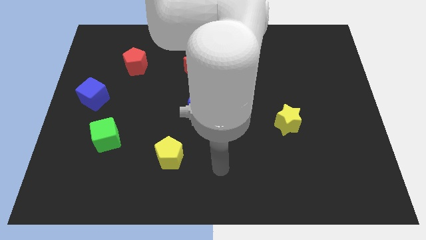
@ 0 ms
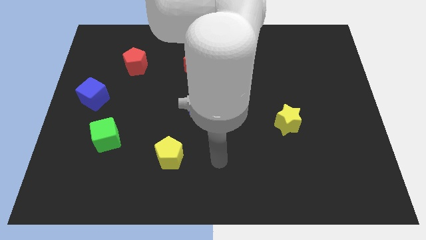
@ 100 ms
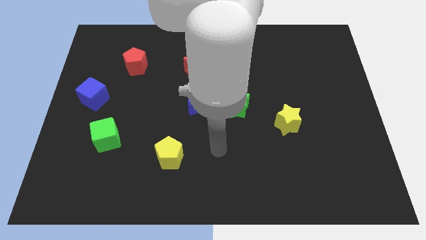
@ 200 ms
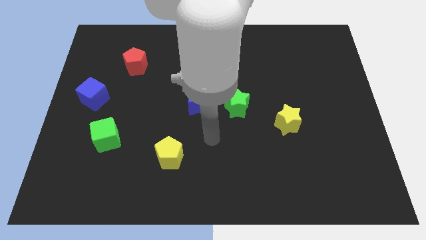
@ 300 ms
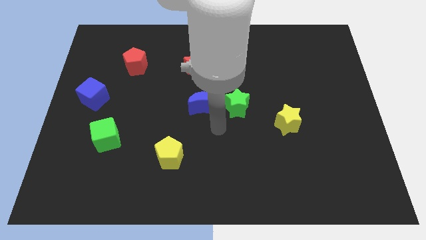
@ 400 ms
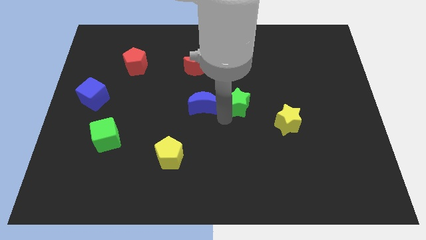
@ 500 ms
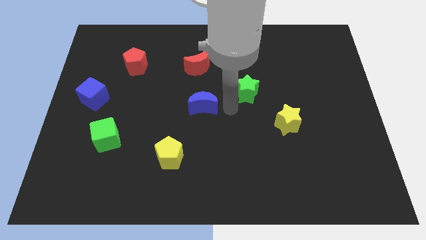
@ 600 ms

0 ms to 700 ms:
move the blue moon away from the green star

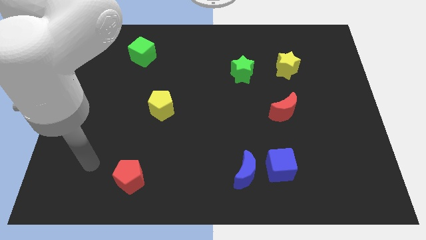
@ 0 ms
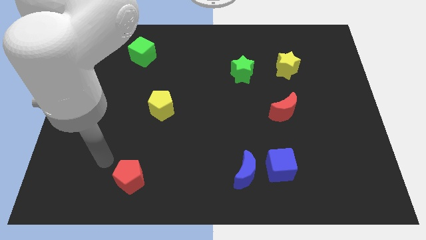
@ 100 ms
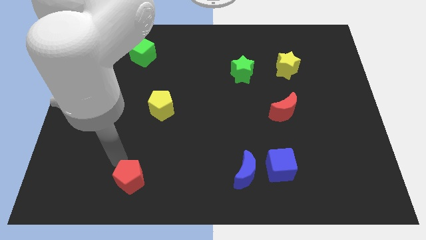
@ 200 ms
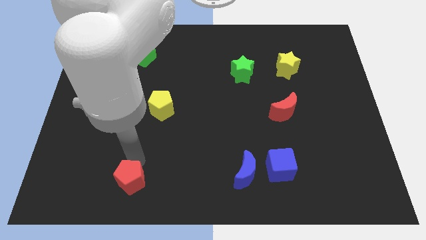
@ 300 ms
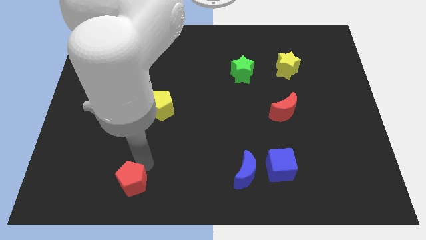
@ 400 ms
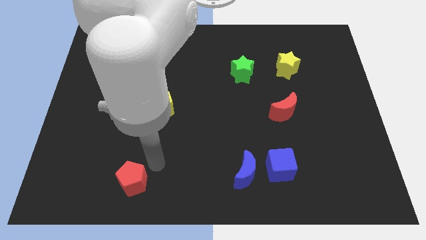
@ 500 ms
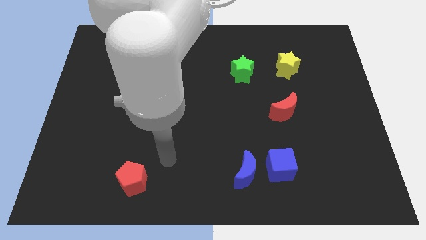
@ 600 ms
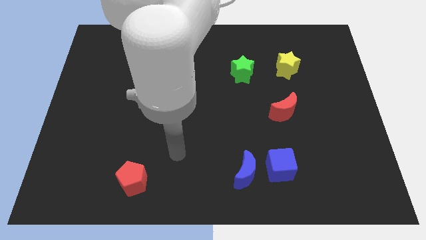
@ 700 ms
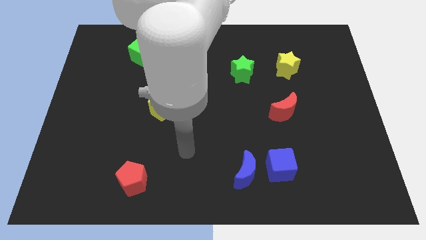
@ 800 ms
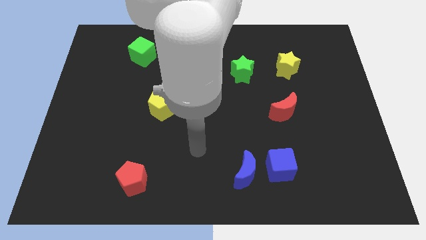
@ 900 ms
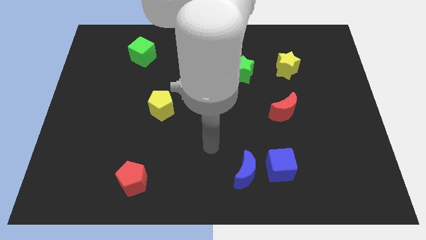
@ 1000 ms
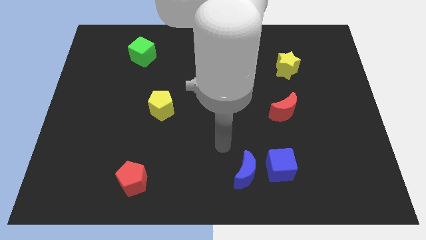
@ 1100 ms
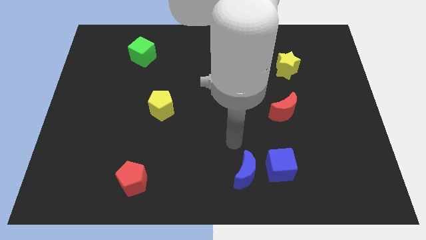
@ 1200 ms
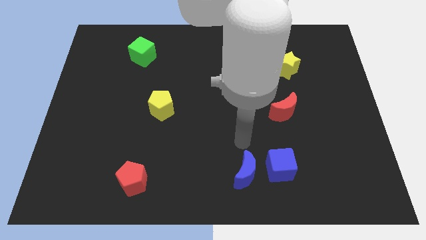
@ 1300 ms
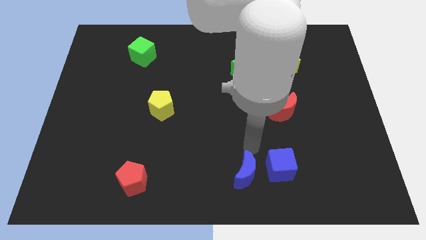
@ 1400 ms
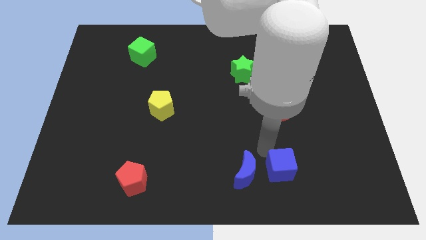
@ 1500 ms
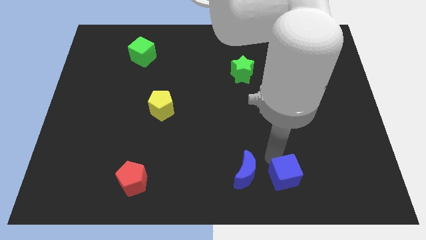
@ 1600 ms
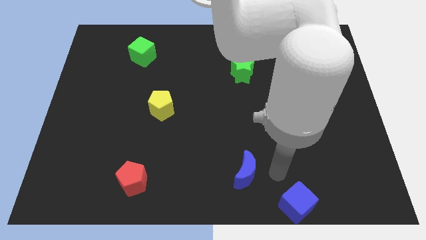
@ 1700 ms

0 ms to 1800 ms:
move the blue moon away from the blue cube

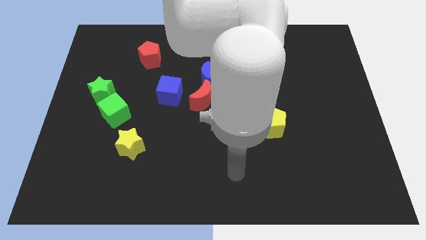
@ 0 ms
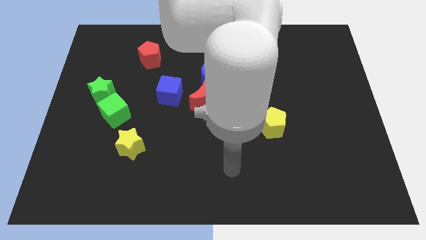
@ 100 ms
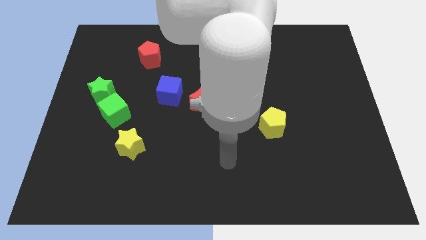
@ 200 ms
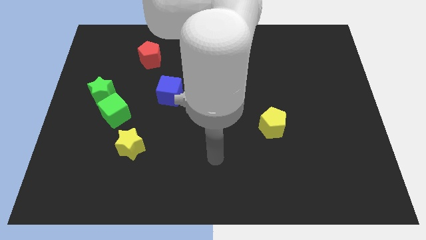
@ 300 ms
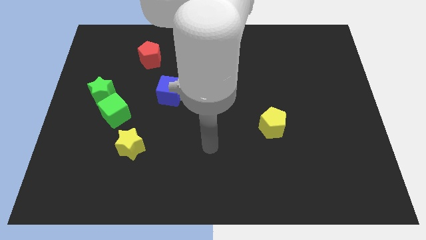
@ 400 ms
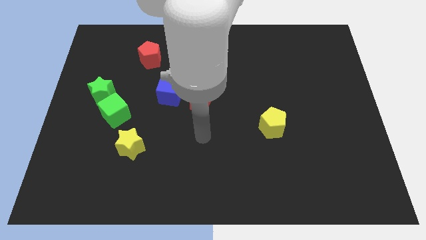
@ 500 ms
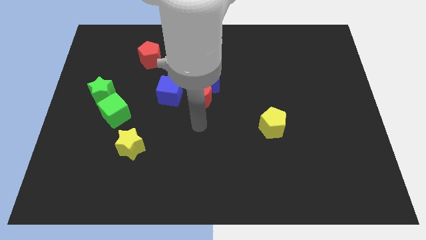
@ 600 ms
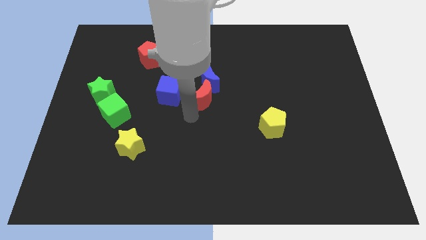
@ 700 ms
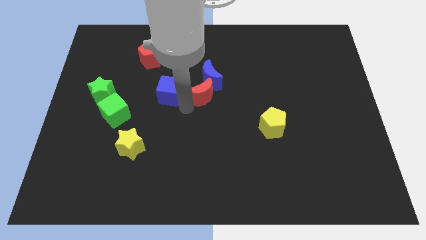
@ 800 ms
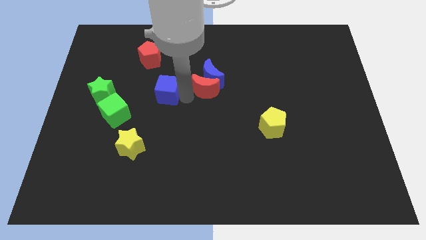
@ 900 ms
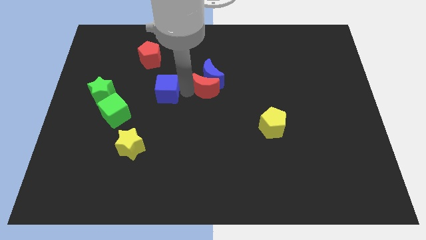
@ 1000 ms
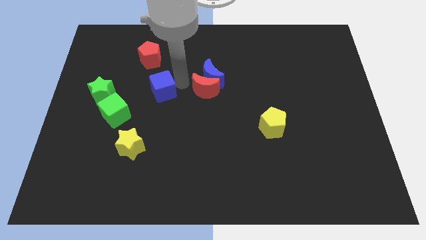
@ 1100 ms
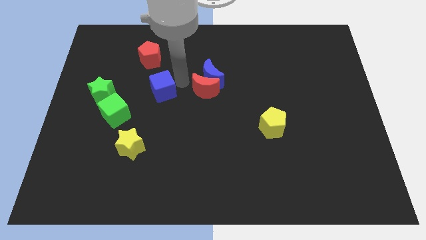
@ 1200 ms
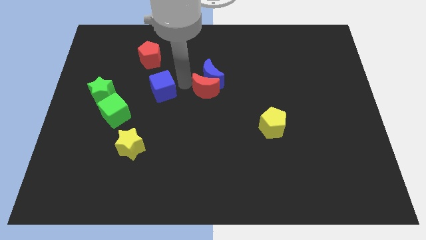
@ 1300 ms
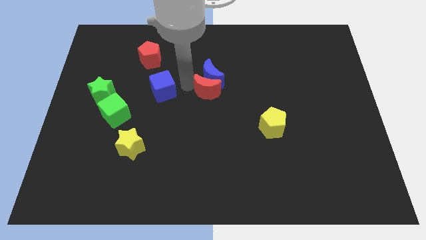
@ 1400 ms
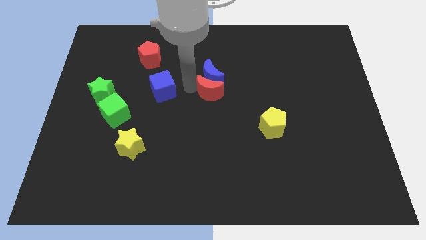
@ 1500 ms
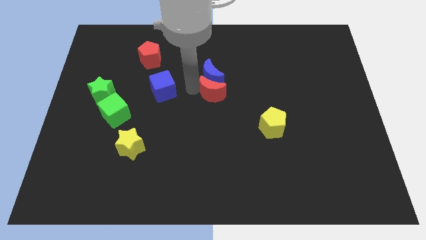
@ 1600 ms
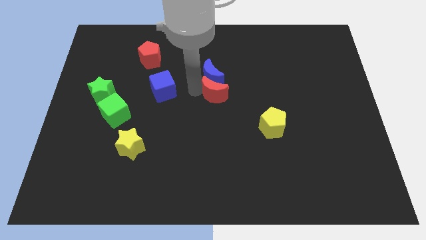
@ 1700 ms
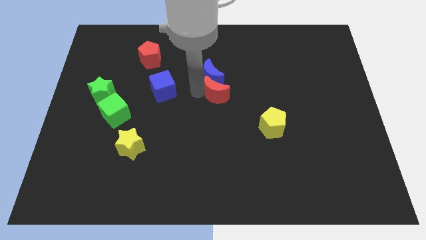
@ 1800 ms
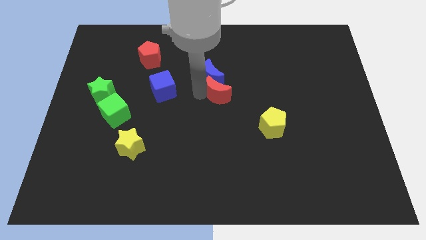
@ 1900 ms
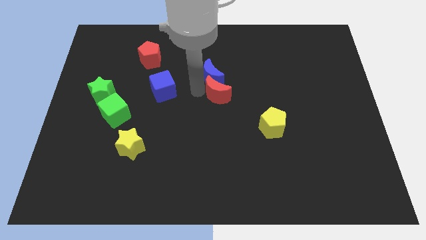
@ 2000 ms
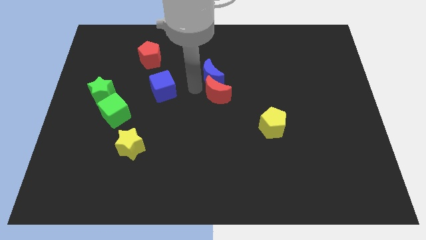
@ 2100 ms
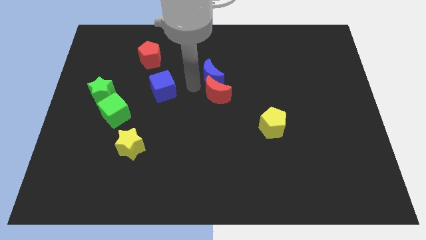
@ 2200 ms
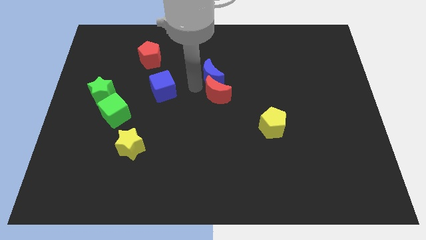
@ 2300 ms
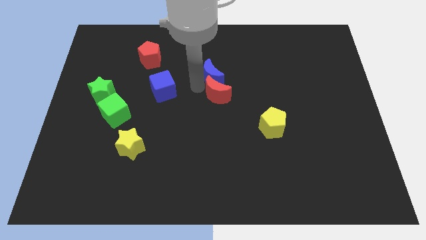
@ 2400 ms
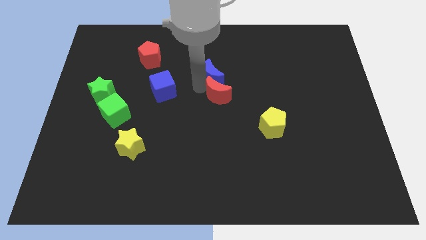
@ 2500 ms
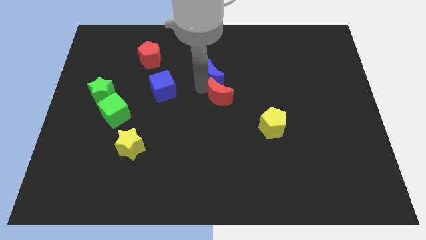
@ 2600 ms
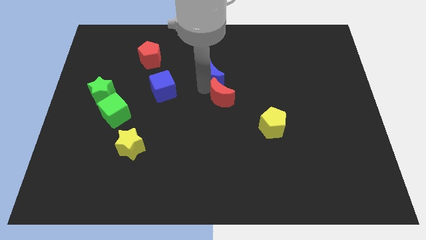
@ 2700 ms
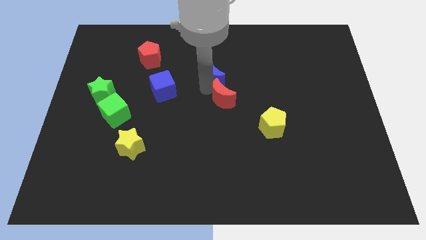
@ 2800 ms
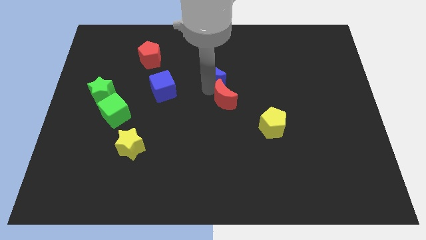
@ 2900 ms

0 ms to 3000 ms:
pull the red moon apart from the blue moon and blue cube

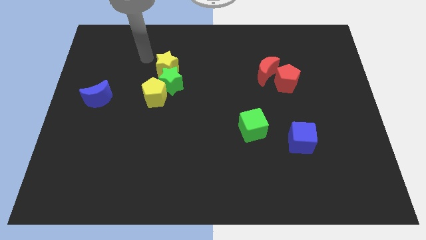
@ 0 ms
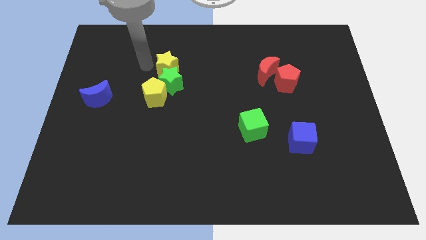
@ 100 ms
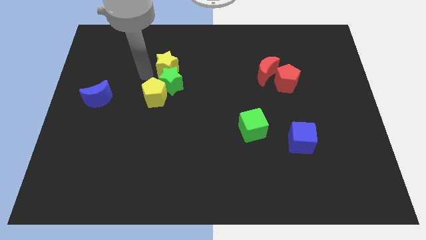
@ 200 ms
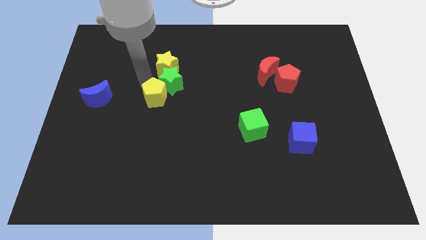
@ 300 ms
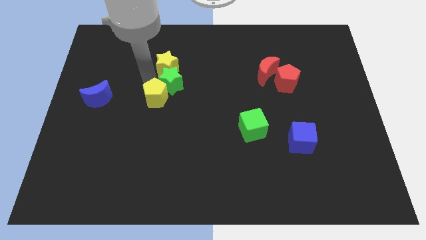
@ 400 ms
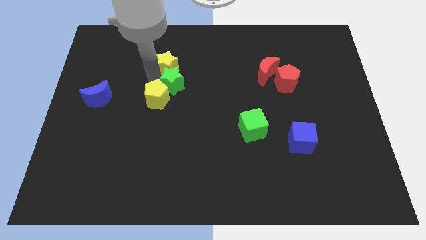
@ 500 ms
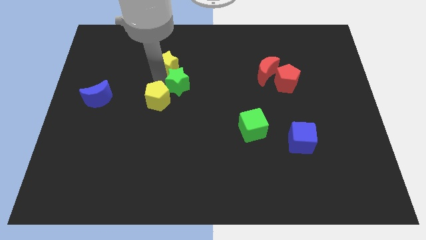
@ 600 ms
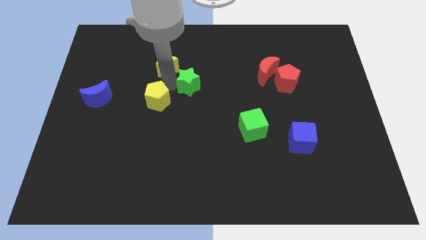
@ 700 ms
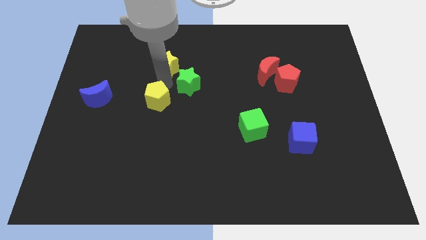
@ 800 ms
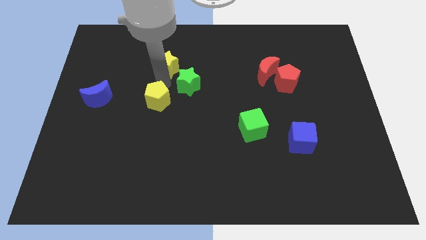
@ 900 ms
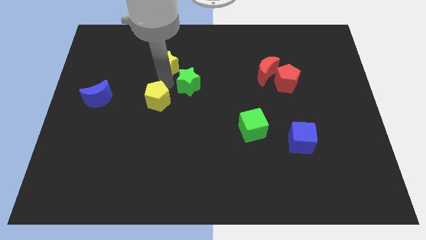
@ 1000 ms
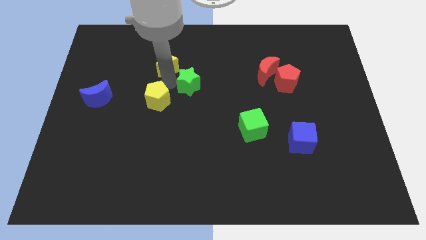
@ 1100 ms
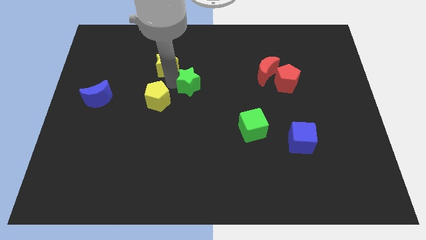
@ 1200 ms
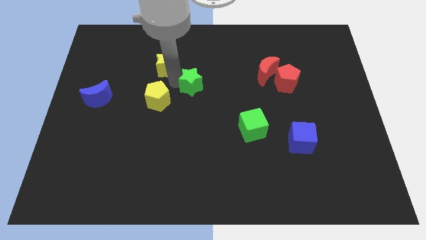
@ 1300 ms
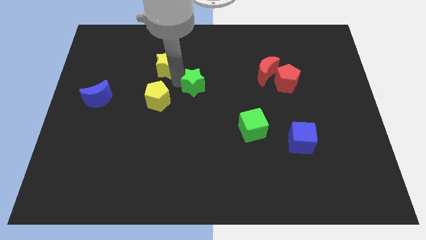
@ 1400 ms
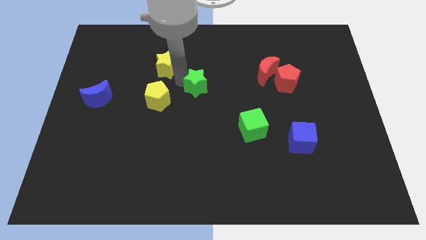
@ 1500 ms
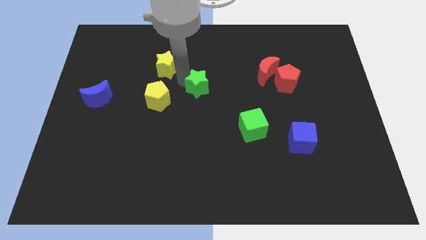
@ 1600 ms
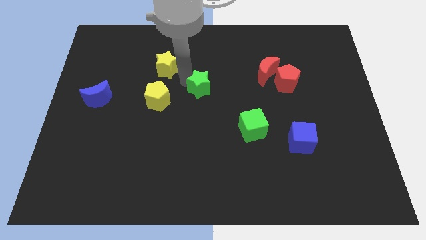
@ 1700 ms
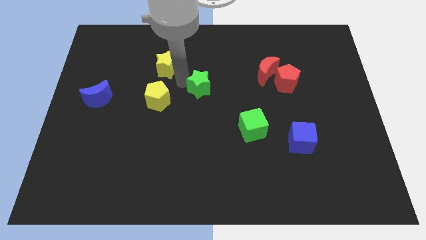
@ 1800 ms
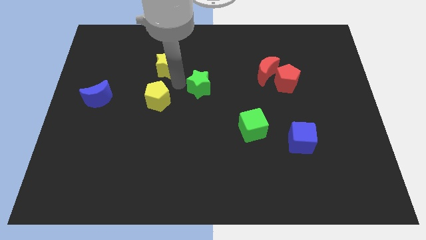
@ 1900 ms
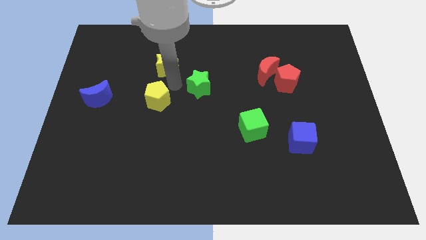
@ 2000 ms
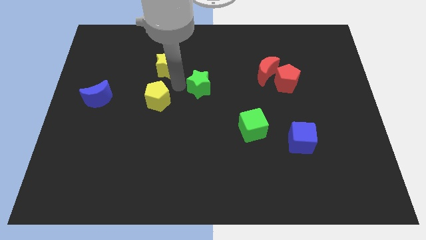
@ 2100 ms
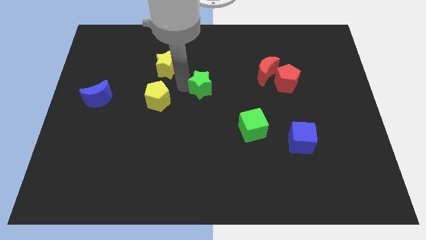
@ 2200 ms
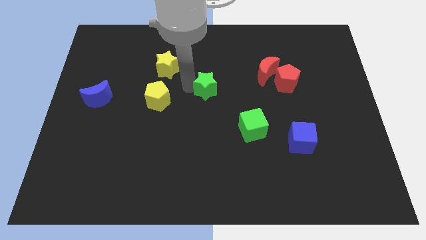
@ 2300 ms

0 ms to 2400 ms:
separate the green star from the yellow pentagon and yellow star

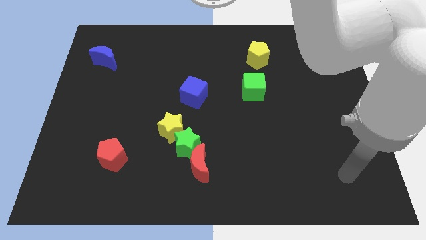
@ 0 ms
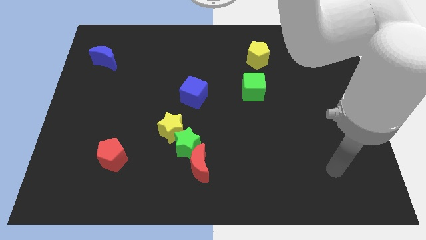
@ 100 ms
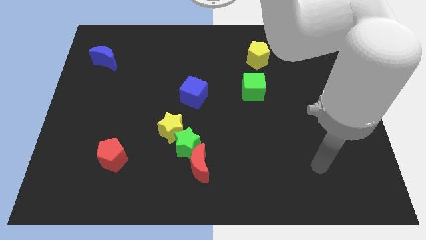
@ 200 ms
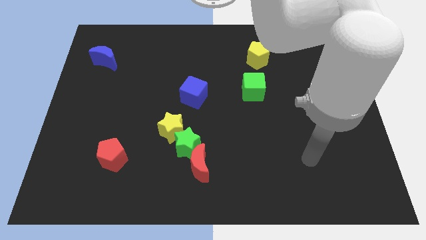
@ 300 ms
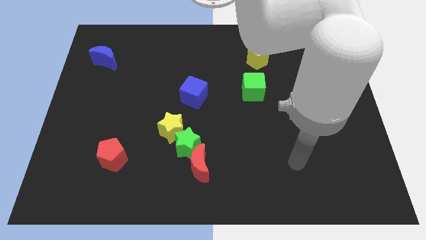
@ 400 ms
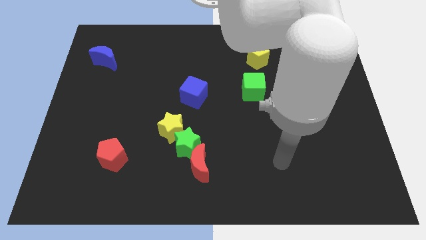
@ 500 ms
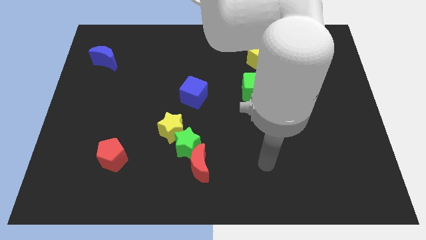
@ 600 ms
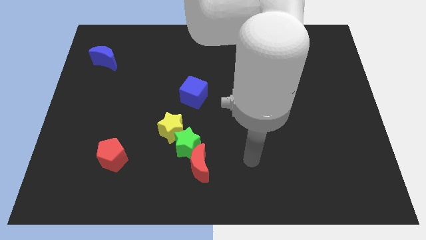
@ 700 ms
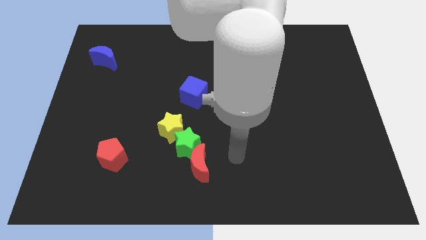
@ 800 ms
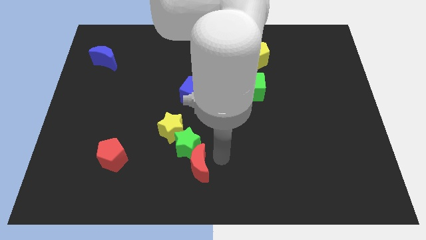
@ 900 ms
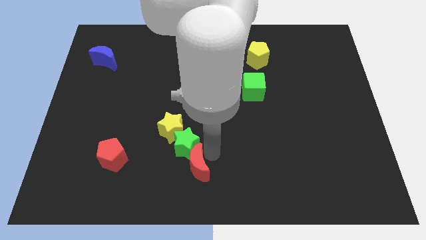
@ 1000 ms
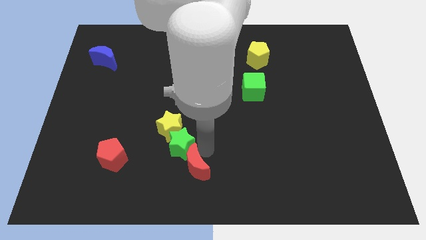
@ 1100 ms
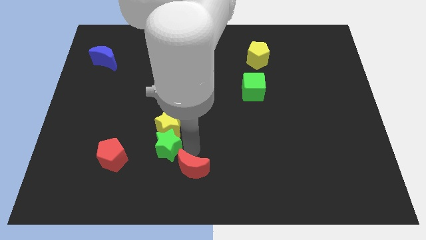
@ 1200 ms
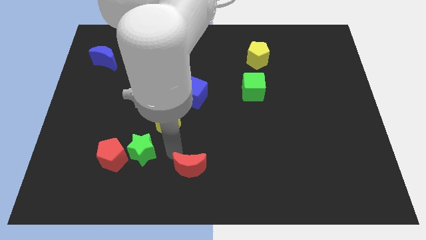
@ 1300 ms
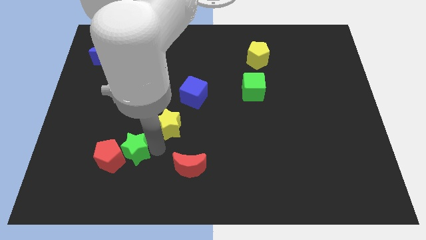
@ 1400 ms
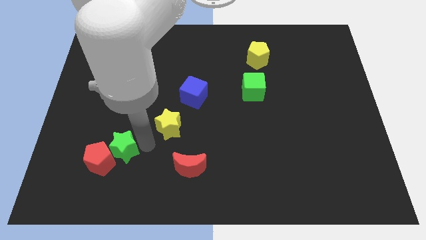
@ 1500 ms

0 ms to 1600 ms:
separate the yellow star from the green star
